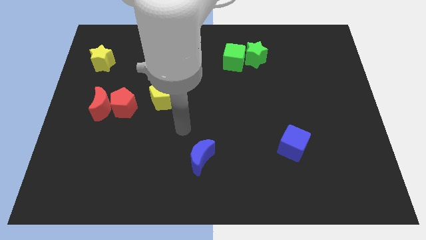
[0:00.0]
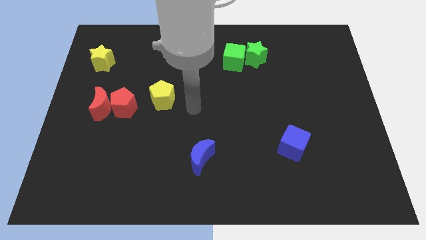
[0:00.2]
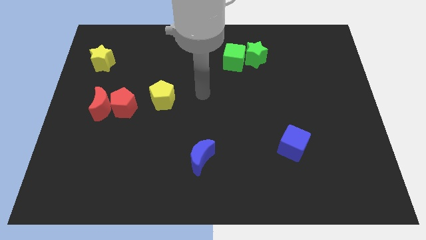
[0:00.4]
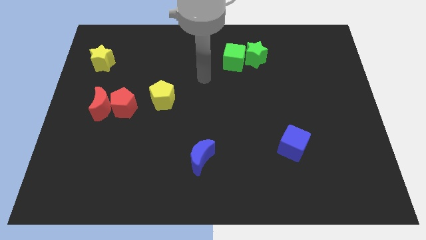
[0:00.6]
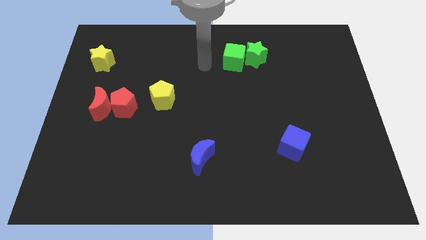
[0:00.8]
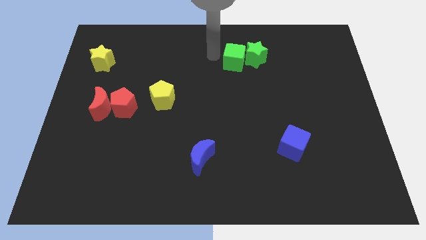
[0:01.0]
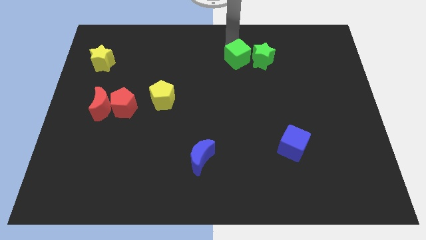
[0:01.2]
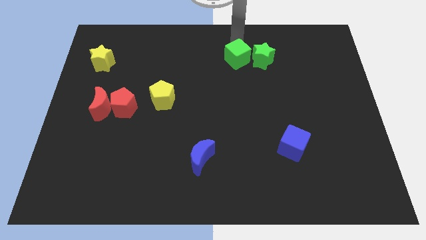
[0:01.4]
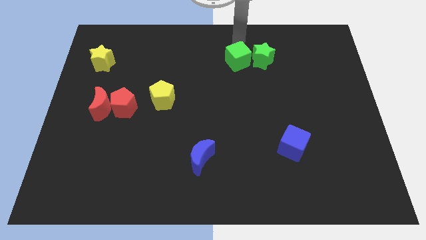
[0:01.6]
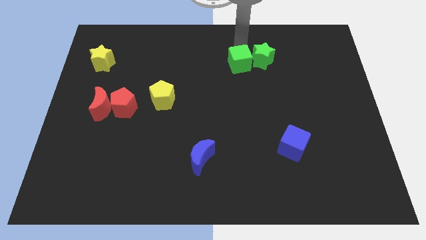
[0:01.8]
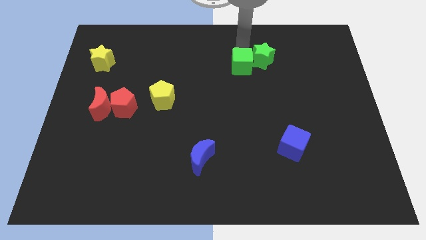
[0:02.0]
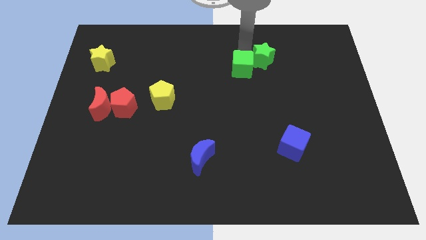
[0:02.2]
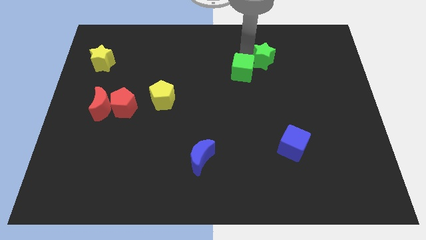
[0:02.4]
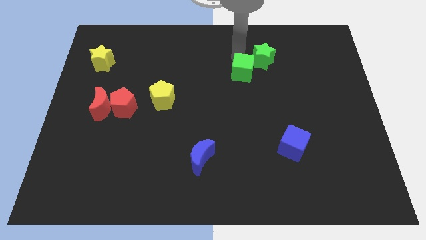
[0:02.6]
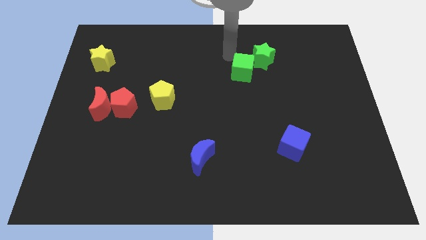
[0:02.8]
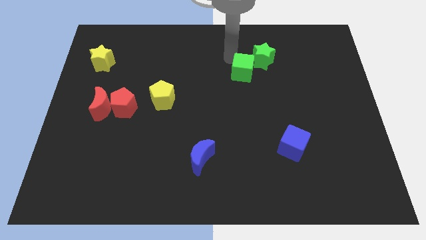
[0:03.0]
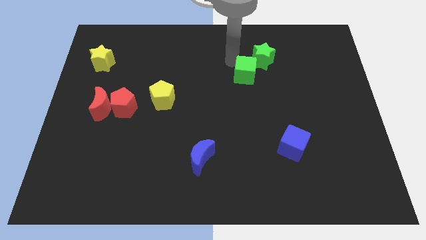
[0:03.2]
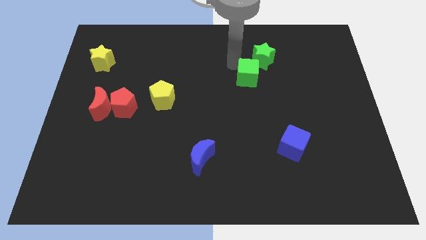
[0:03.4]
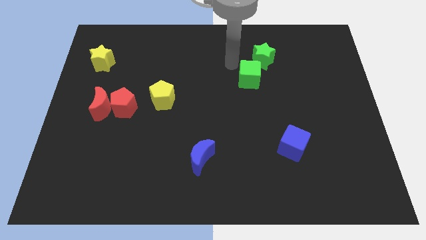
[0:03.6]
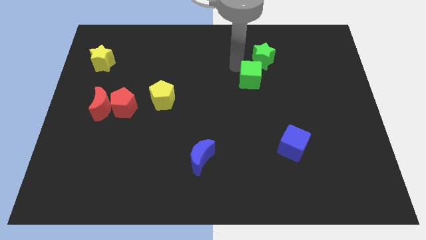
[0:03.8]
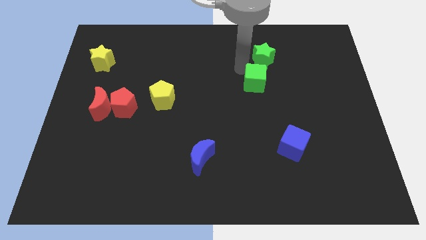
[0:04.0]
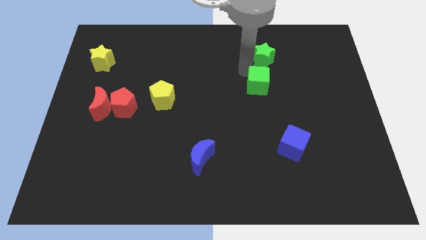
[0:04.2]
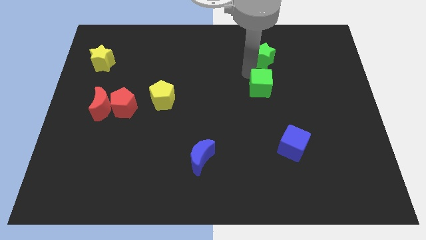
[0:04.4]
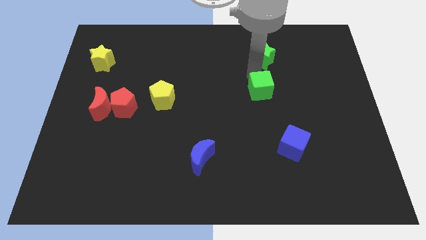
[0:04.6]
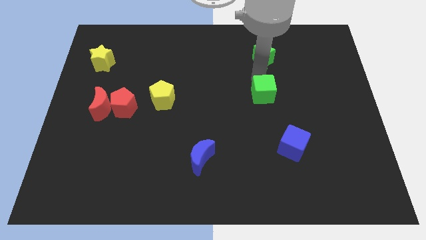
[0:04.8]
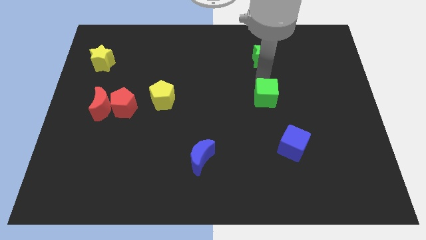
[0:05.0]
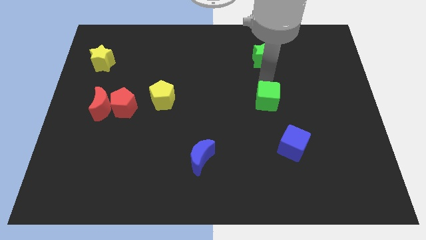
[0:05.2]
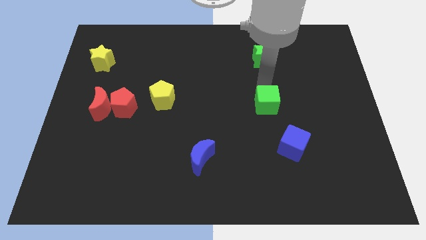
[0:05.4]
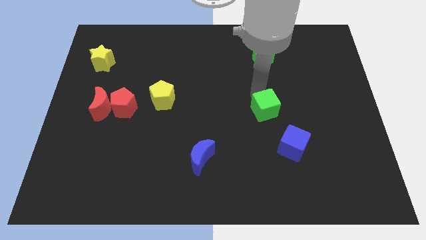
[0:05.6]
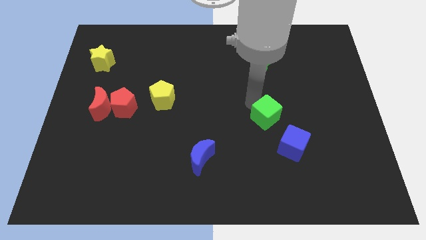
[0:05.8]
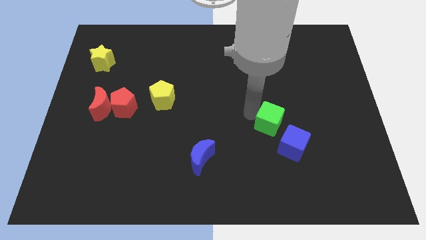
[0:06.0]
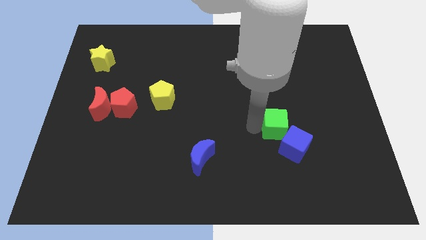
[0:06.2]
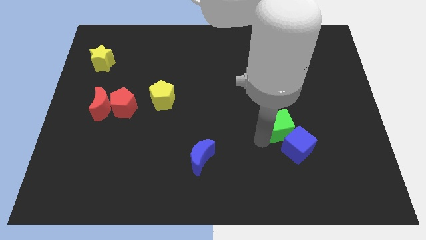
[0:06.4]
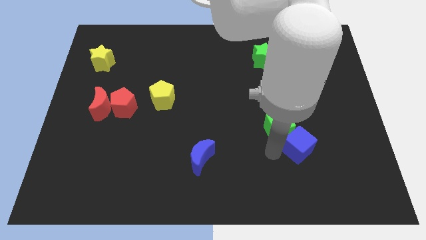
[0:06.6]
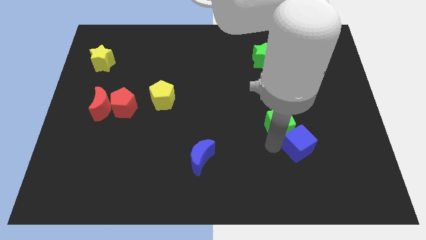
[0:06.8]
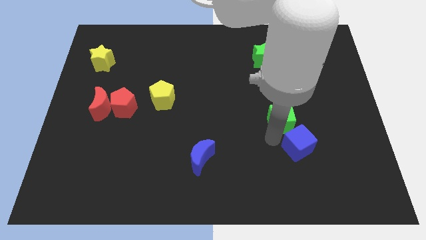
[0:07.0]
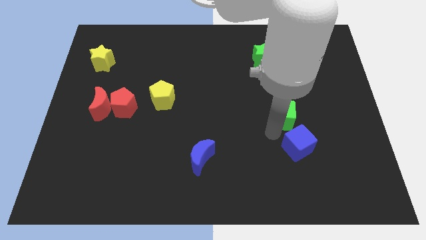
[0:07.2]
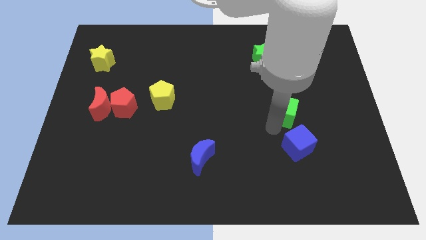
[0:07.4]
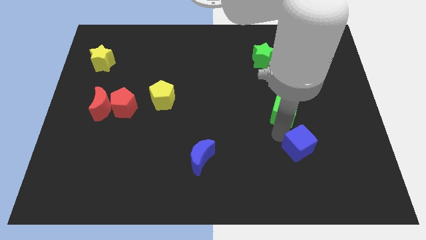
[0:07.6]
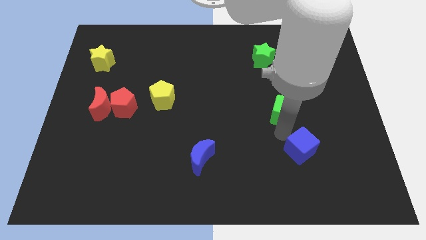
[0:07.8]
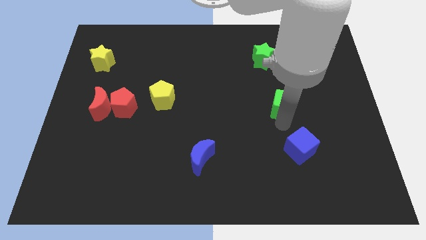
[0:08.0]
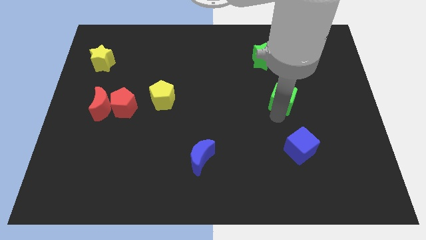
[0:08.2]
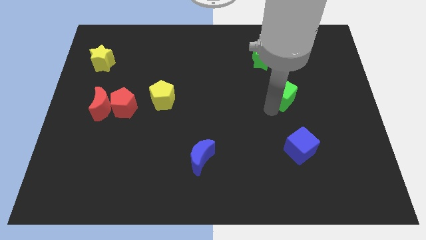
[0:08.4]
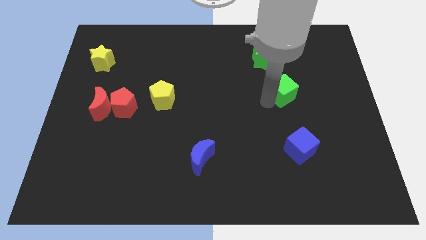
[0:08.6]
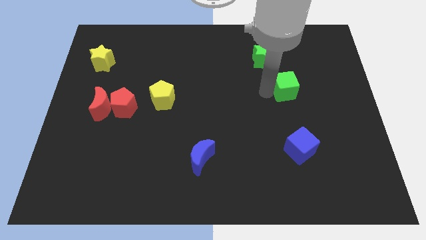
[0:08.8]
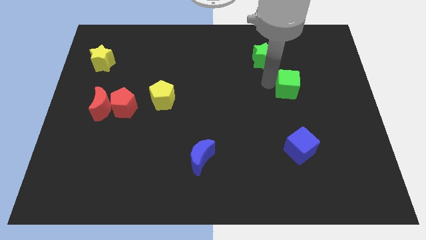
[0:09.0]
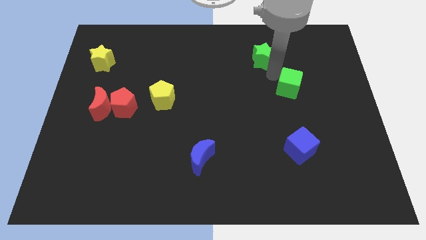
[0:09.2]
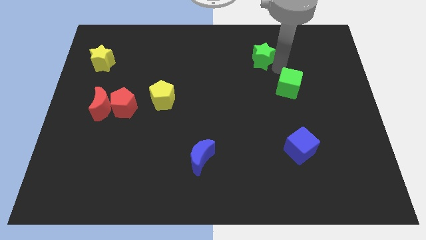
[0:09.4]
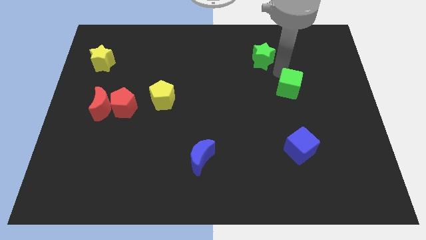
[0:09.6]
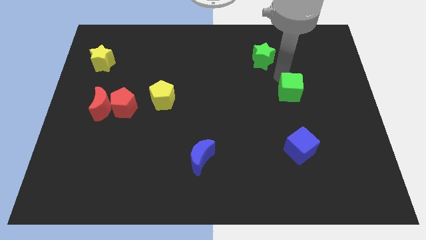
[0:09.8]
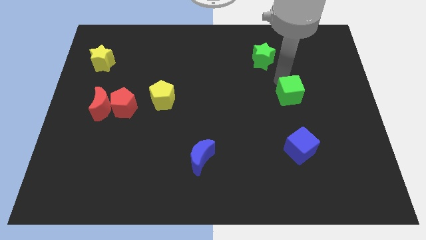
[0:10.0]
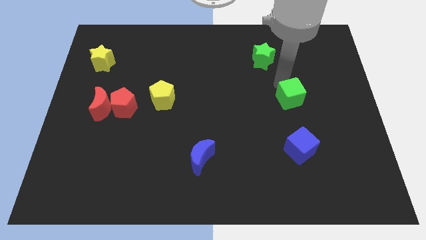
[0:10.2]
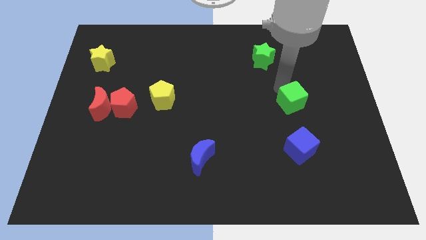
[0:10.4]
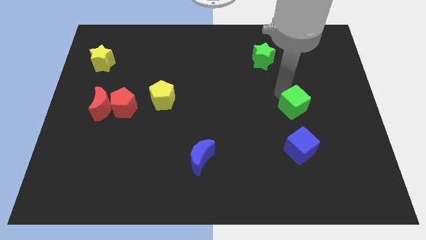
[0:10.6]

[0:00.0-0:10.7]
slide the green cube downwards and to the right diagonally

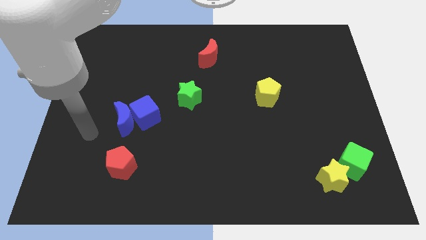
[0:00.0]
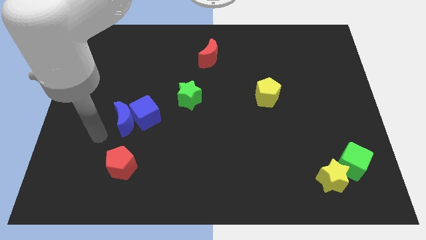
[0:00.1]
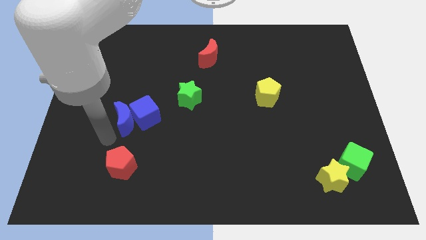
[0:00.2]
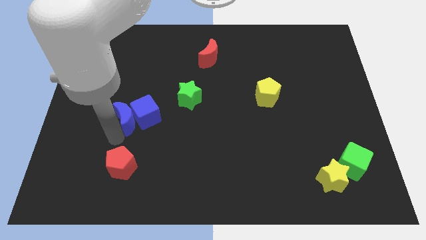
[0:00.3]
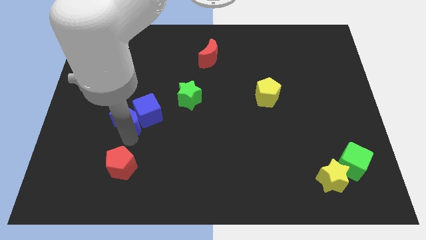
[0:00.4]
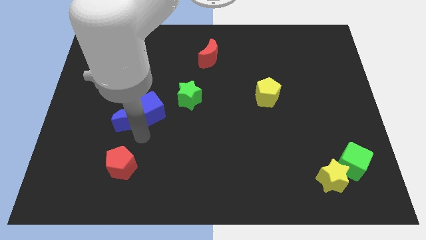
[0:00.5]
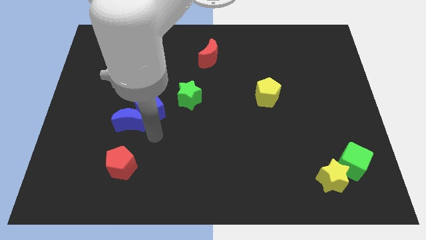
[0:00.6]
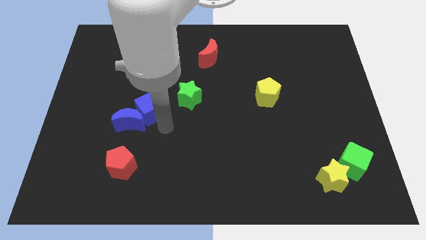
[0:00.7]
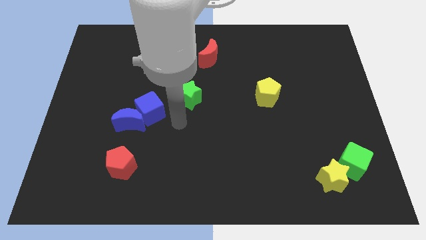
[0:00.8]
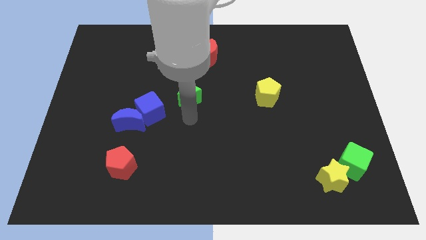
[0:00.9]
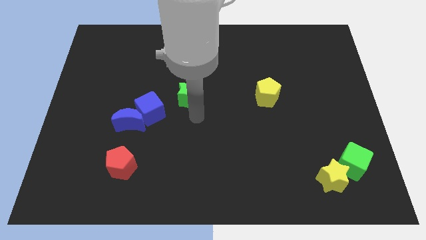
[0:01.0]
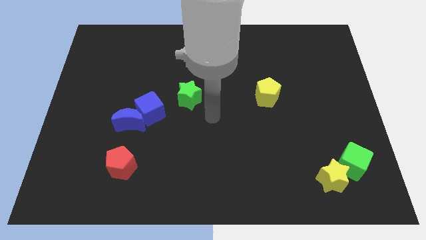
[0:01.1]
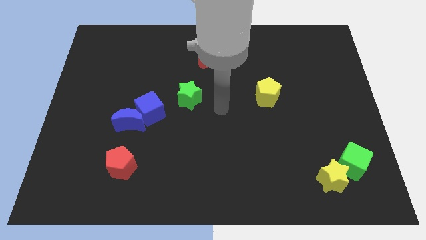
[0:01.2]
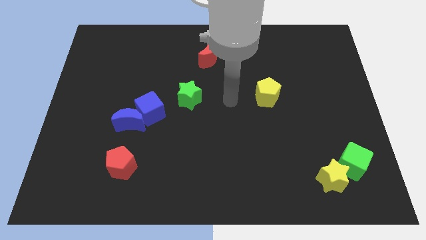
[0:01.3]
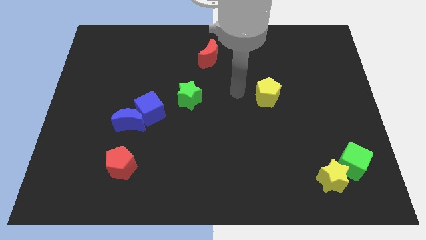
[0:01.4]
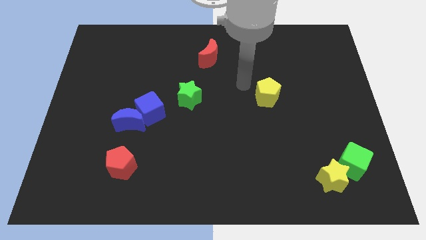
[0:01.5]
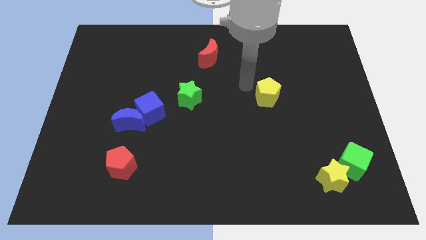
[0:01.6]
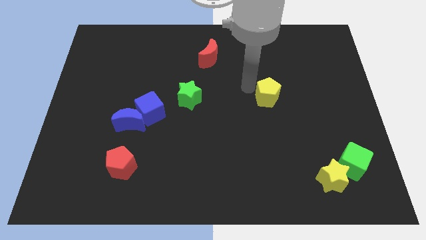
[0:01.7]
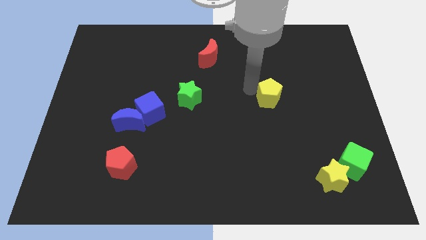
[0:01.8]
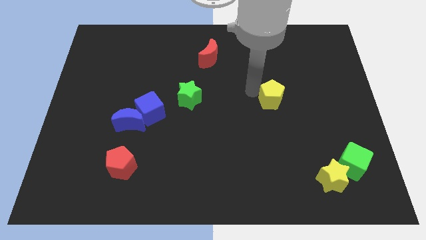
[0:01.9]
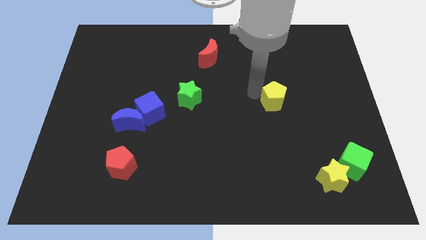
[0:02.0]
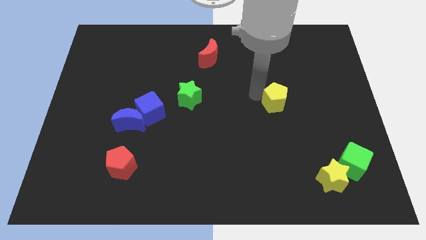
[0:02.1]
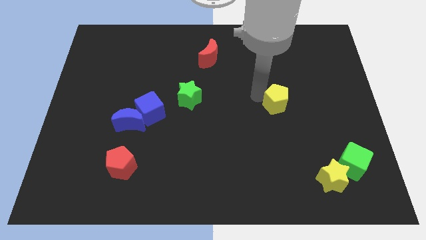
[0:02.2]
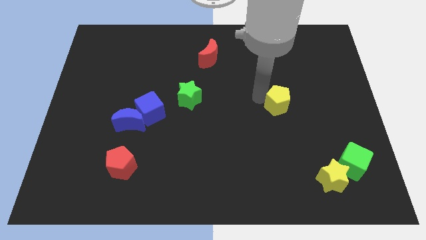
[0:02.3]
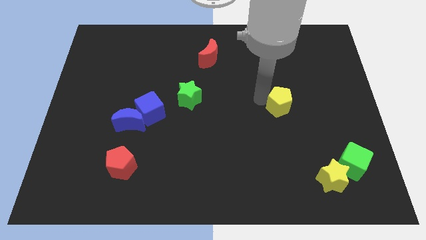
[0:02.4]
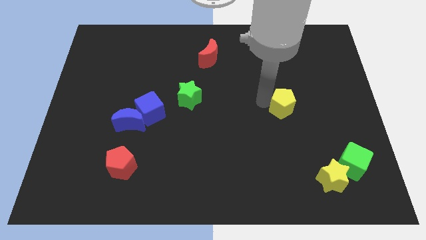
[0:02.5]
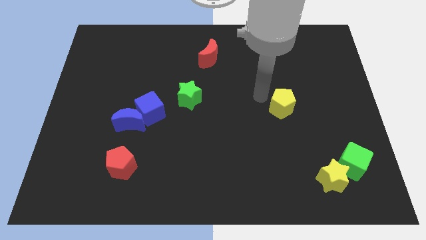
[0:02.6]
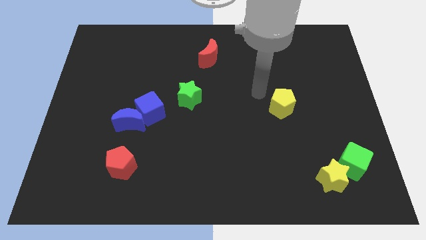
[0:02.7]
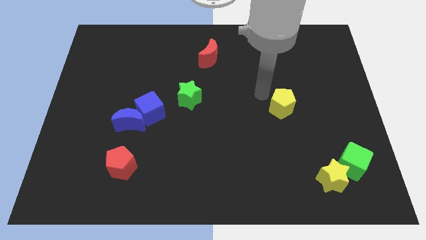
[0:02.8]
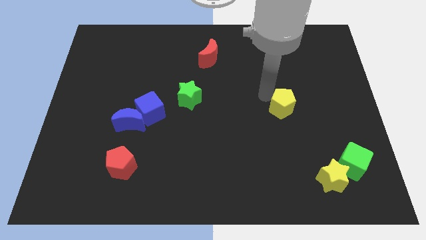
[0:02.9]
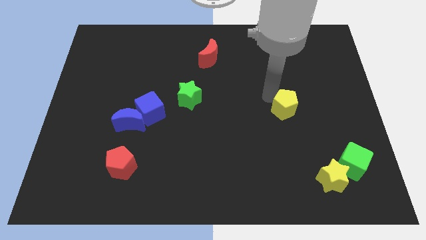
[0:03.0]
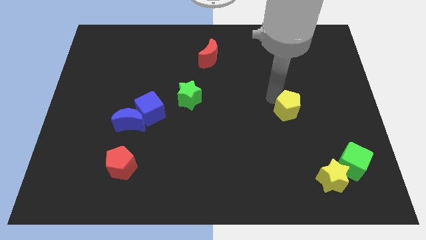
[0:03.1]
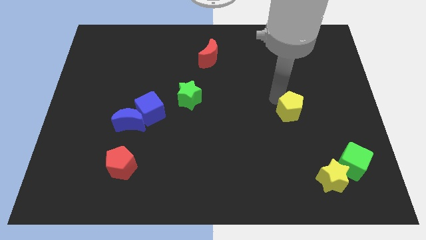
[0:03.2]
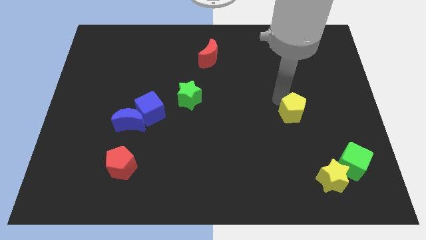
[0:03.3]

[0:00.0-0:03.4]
push the yellow pentagon a little down and then right
